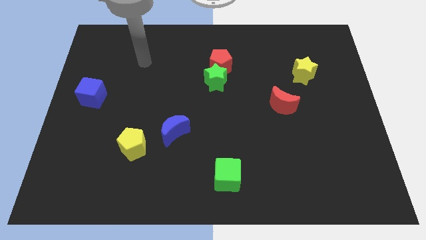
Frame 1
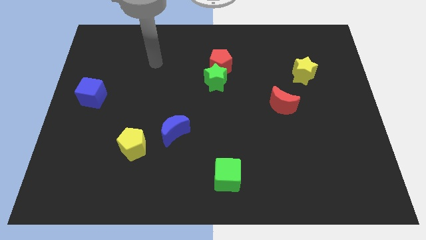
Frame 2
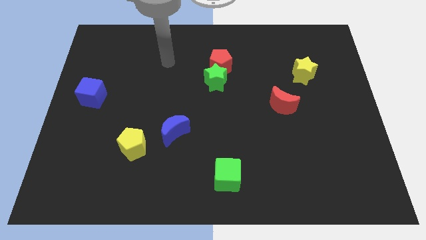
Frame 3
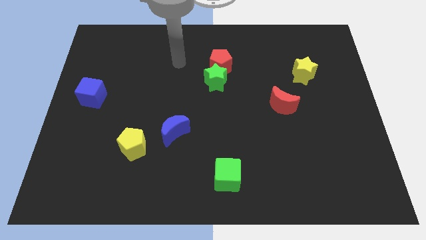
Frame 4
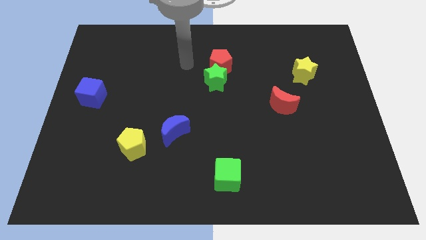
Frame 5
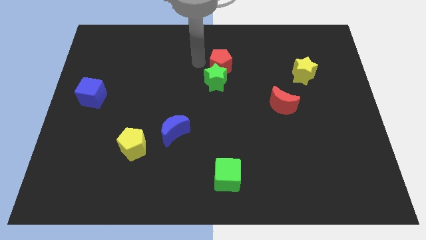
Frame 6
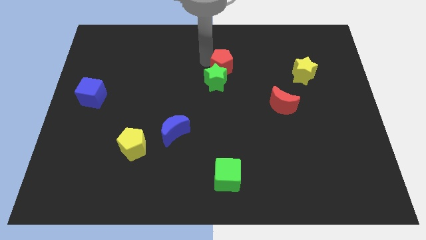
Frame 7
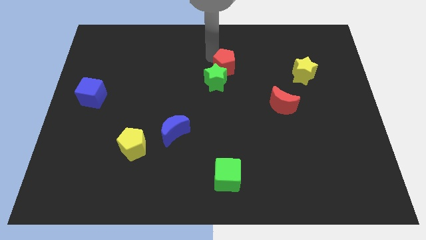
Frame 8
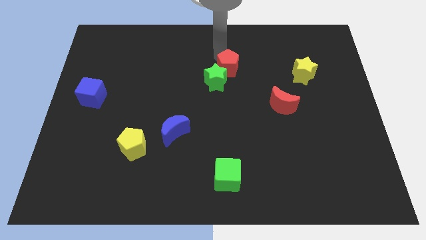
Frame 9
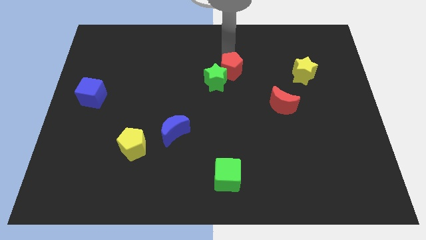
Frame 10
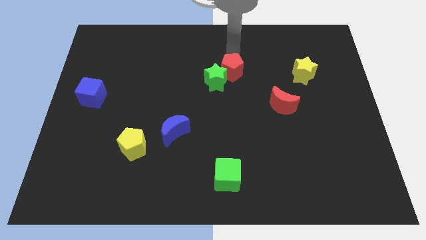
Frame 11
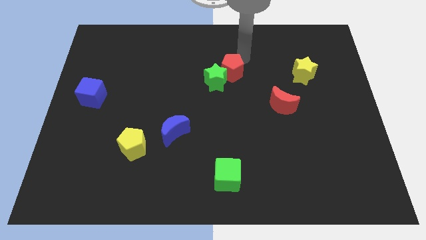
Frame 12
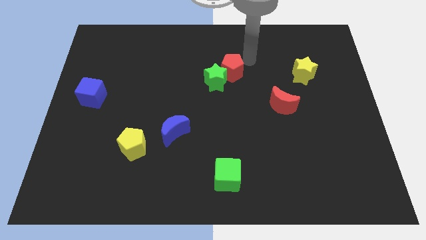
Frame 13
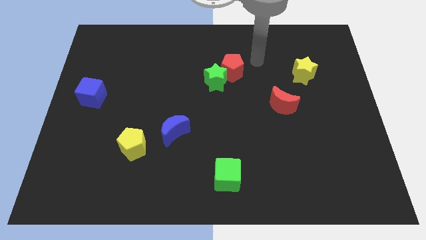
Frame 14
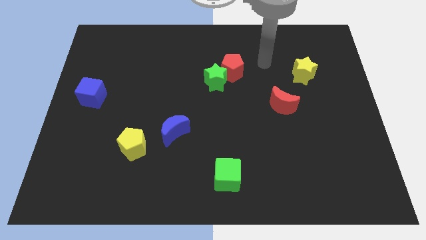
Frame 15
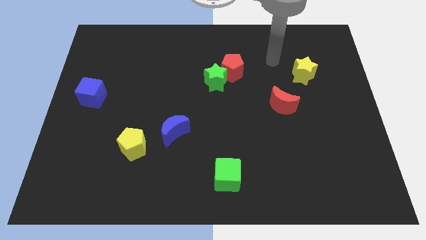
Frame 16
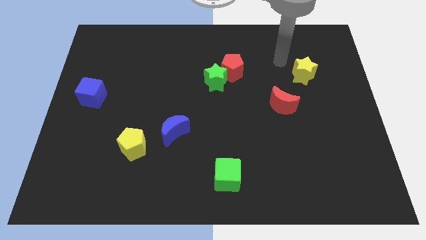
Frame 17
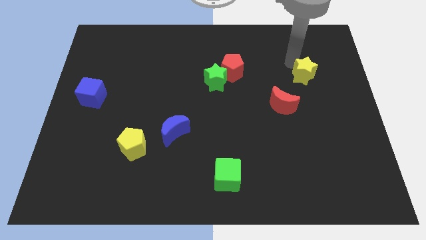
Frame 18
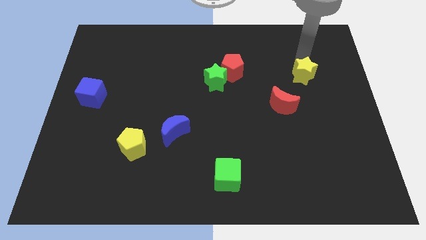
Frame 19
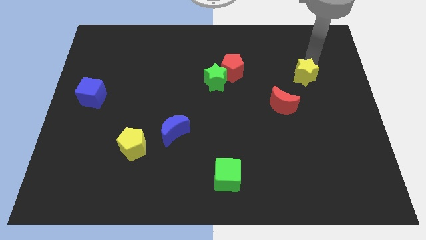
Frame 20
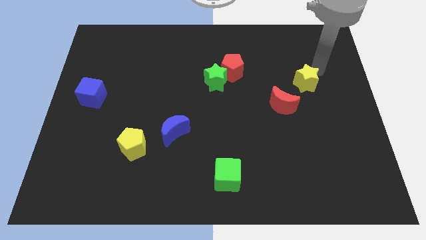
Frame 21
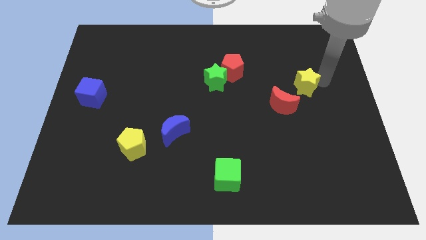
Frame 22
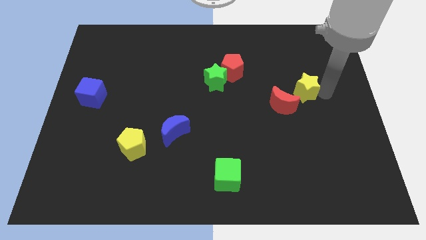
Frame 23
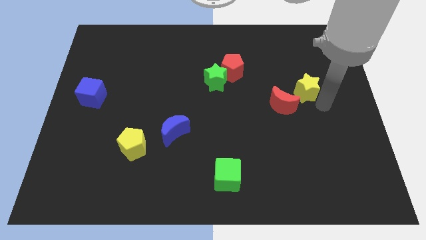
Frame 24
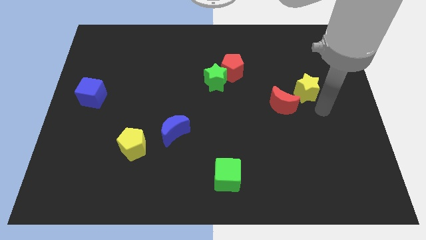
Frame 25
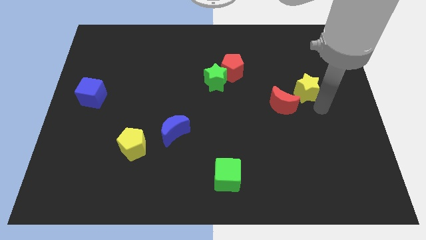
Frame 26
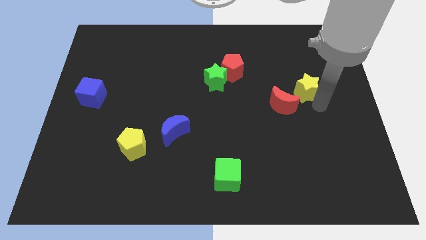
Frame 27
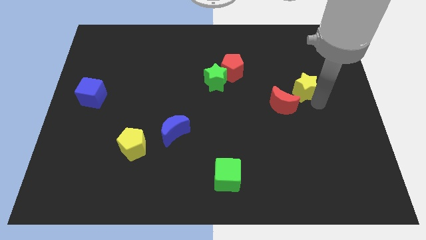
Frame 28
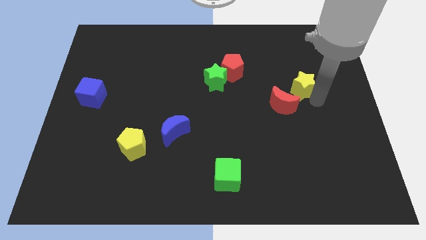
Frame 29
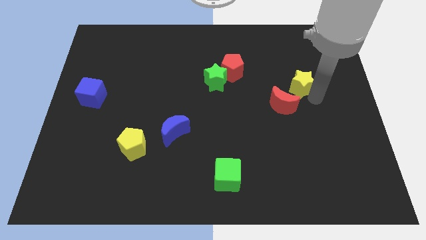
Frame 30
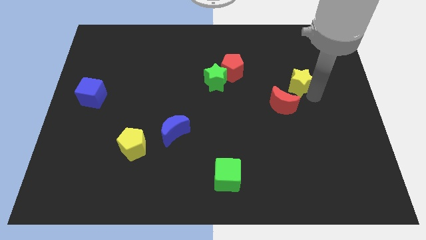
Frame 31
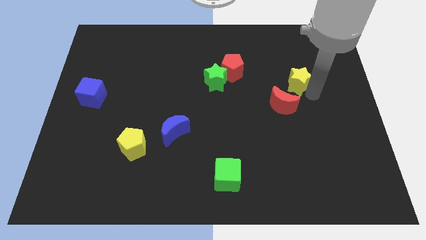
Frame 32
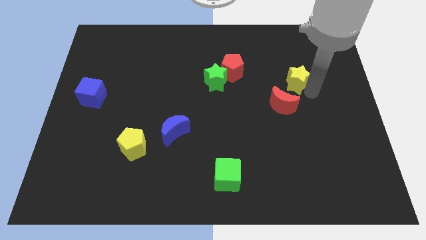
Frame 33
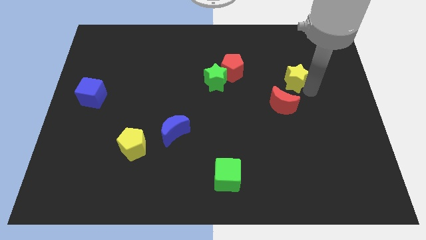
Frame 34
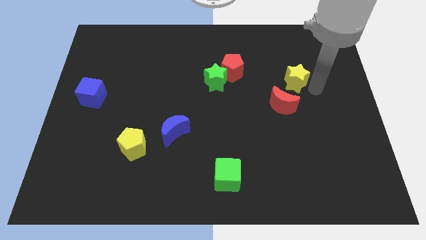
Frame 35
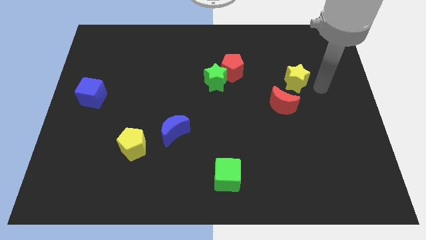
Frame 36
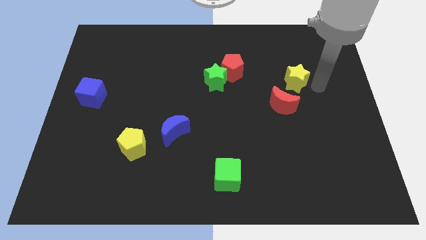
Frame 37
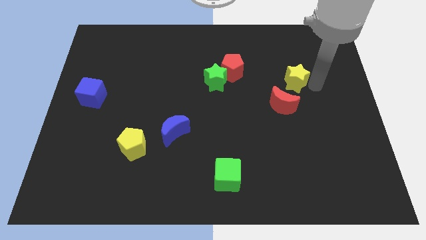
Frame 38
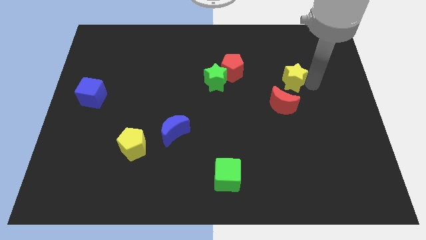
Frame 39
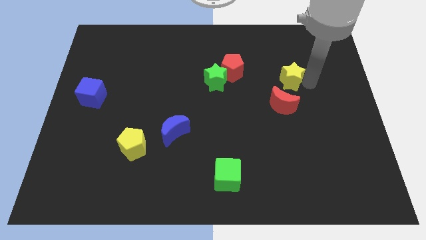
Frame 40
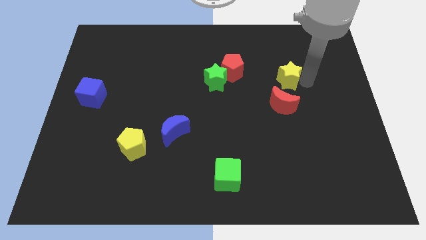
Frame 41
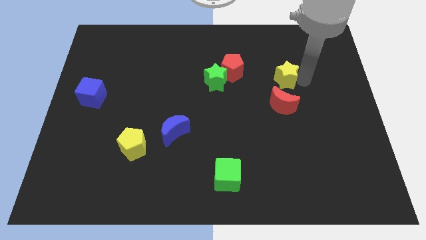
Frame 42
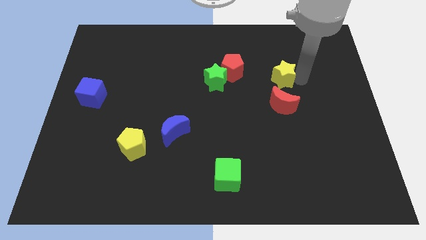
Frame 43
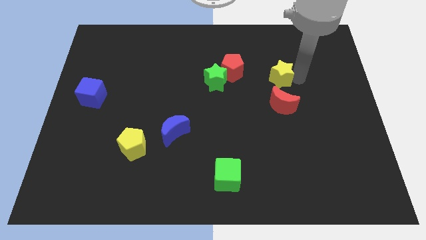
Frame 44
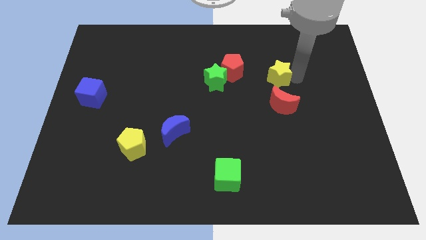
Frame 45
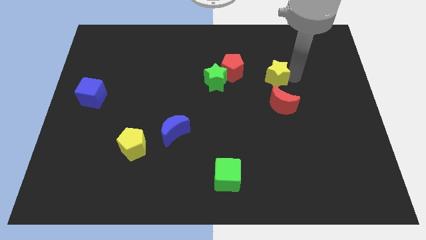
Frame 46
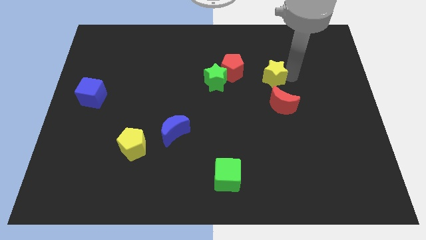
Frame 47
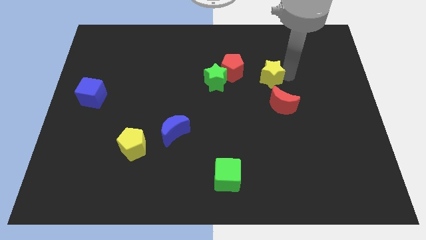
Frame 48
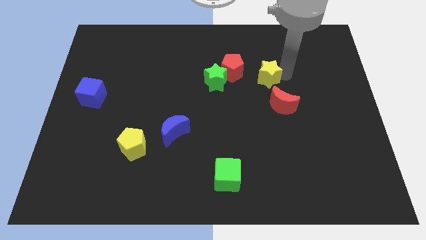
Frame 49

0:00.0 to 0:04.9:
move the yellow star to the bottom right of the red pentagon

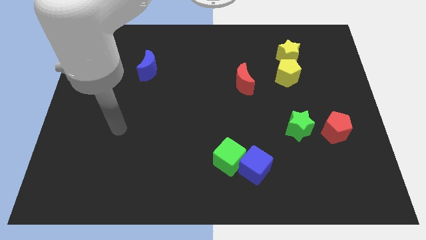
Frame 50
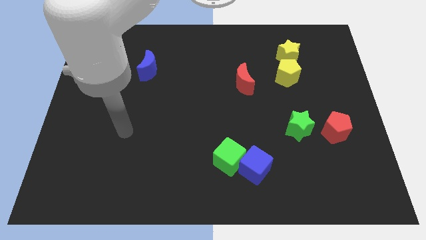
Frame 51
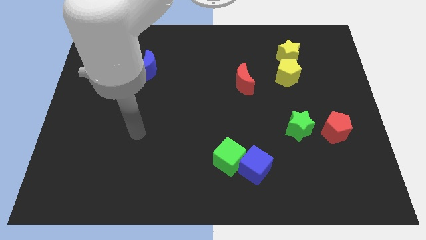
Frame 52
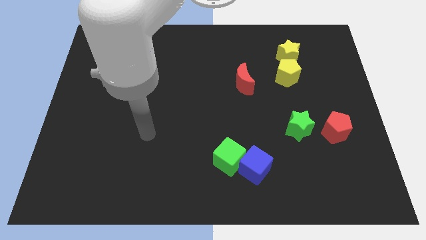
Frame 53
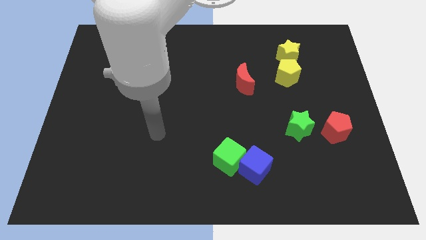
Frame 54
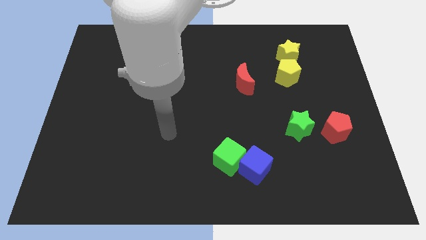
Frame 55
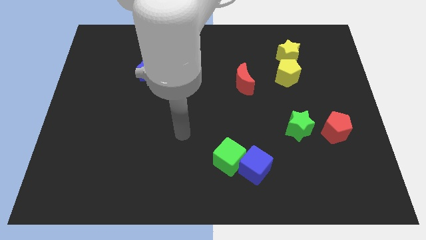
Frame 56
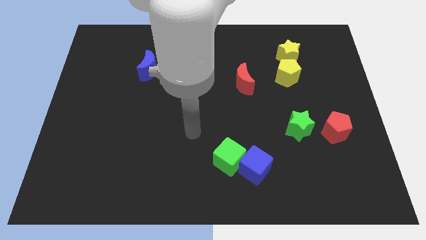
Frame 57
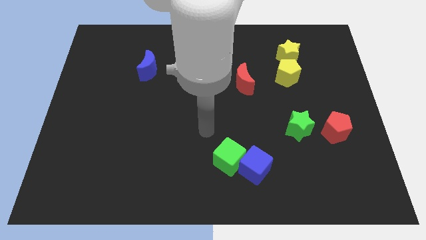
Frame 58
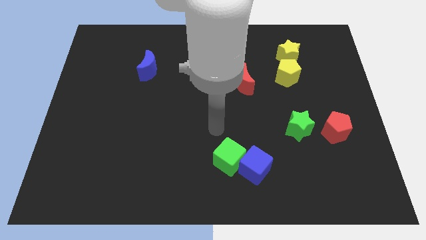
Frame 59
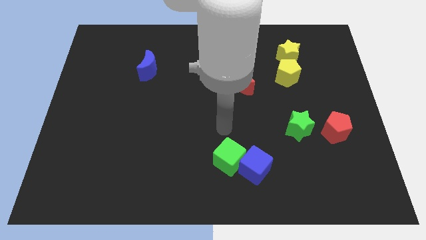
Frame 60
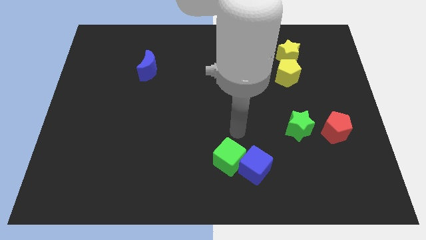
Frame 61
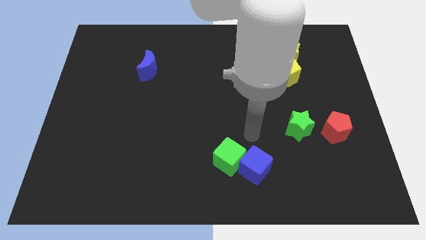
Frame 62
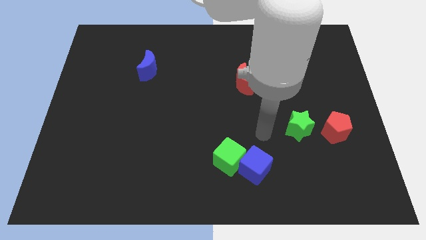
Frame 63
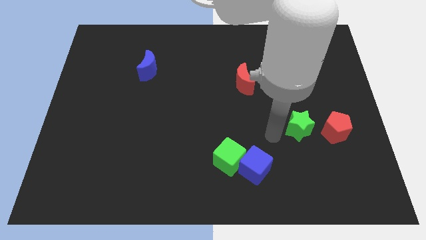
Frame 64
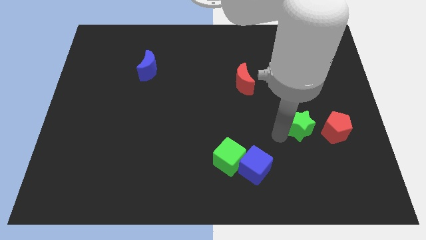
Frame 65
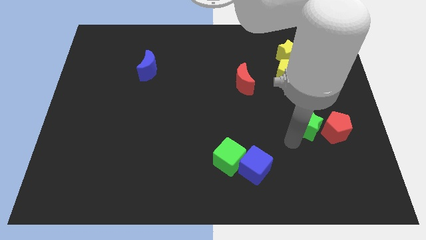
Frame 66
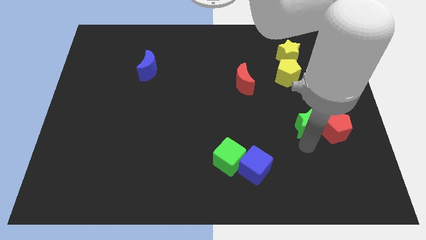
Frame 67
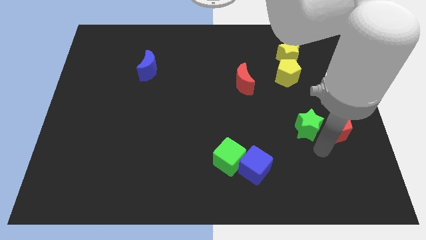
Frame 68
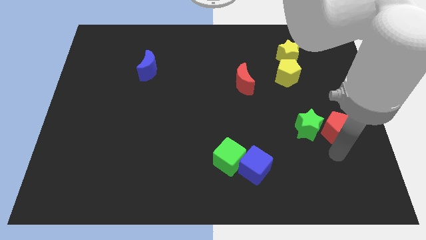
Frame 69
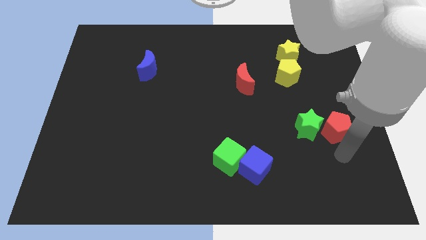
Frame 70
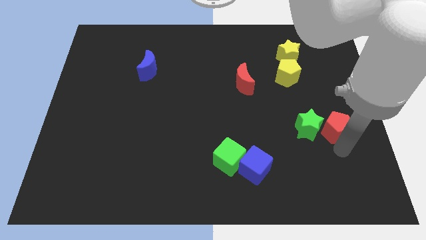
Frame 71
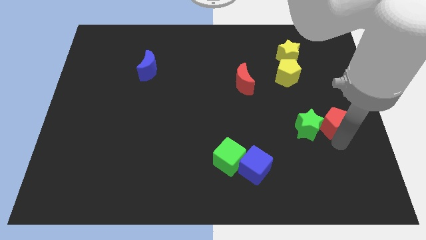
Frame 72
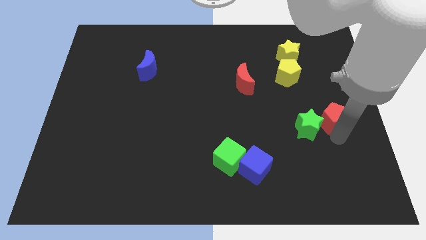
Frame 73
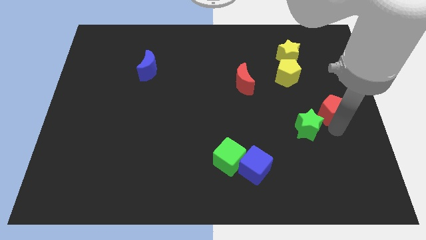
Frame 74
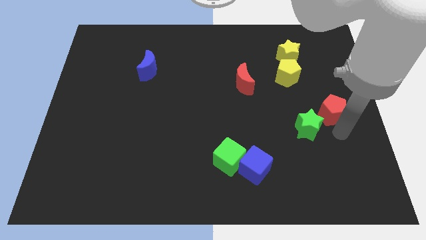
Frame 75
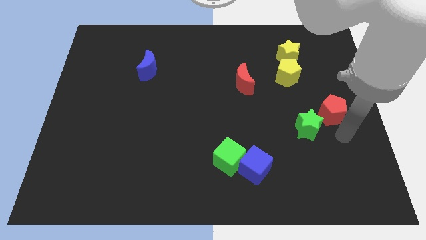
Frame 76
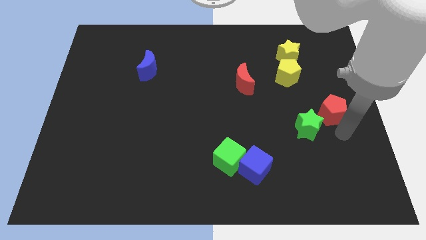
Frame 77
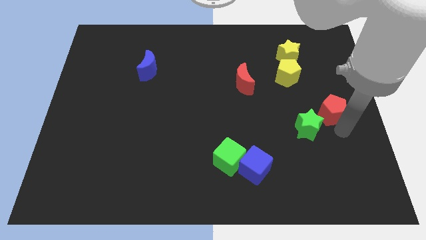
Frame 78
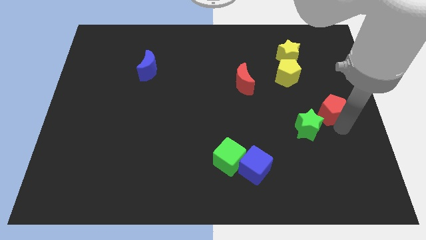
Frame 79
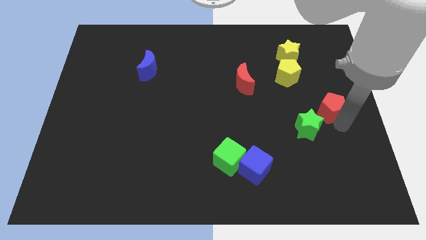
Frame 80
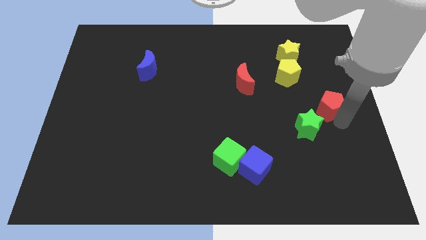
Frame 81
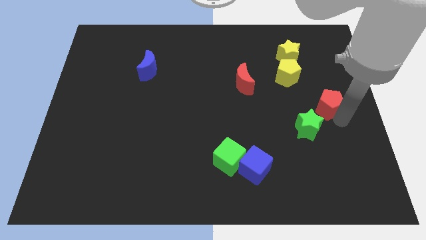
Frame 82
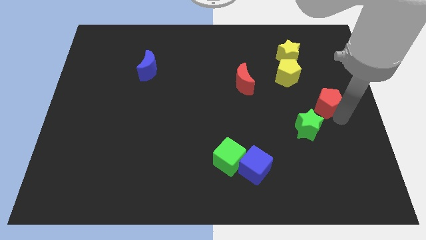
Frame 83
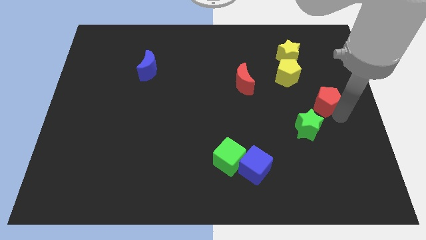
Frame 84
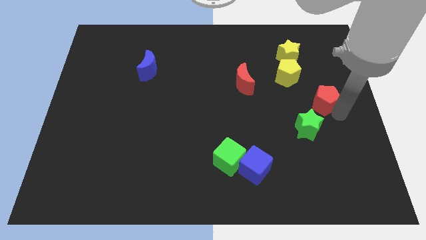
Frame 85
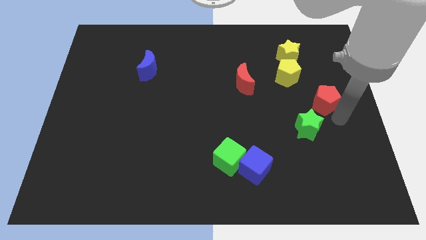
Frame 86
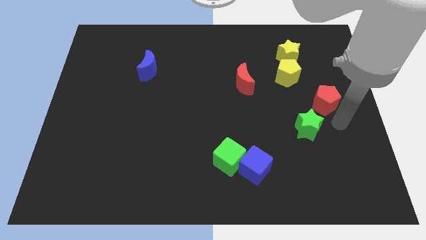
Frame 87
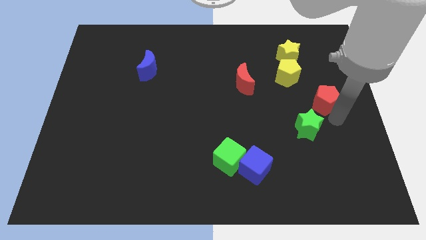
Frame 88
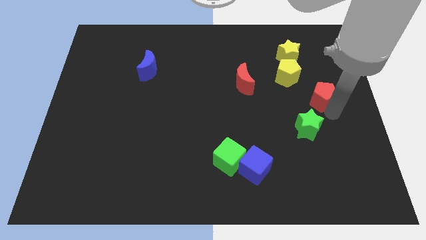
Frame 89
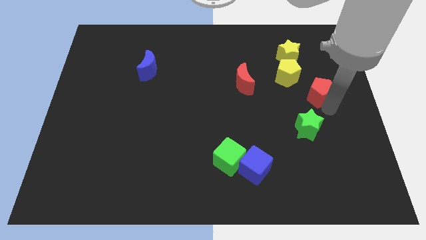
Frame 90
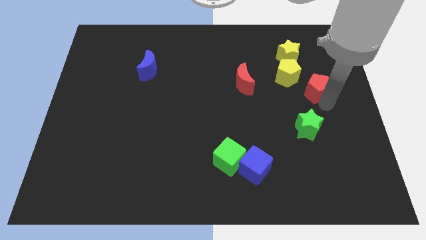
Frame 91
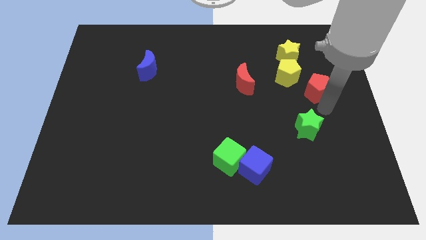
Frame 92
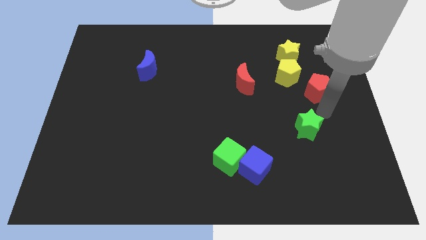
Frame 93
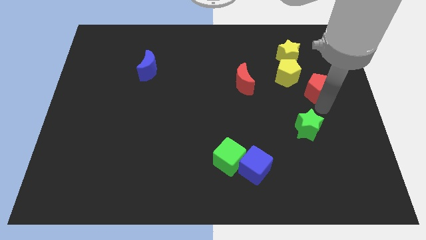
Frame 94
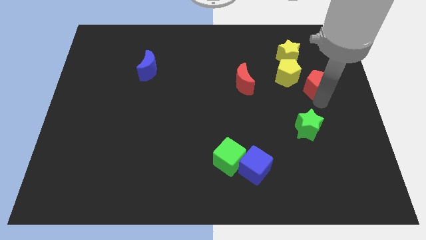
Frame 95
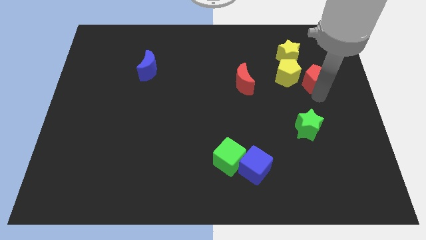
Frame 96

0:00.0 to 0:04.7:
put the red pentagon to the bottom right of the yellow star
